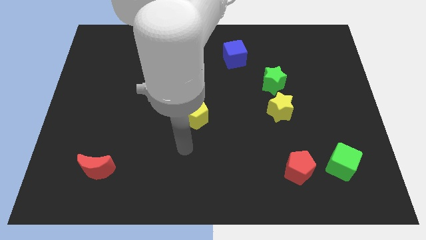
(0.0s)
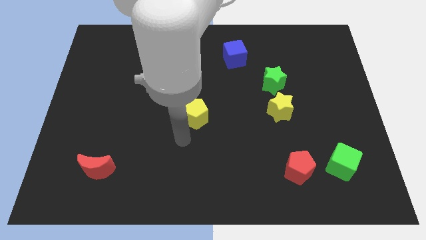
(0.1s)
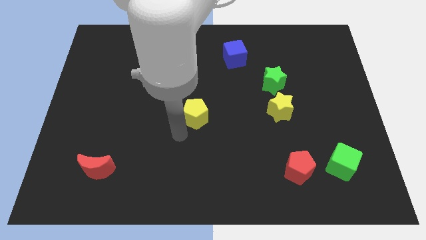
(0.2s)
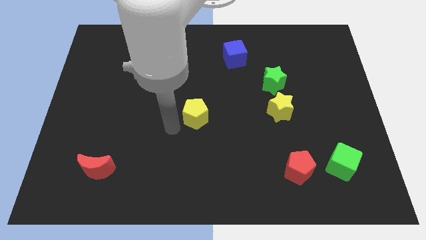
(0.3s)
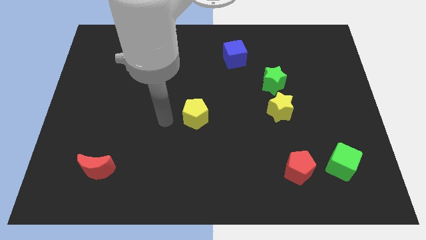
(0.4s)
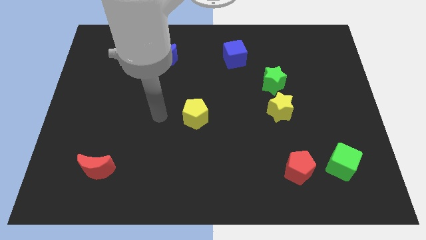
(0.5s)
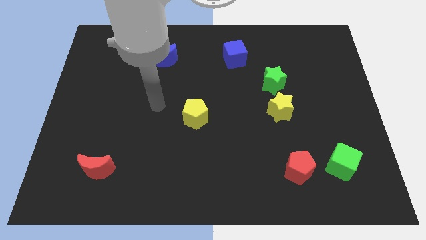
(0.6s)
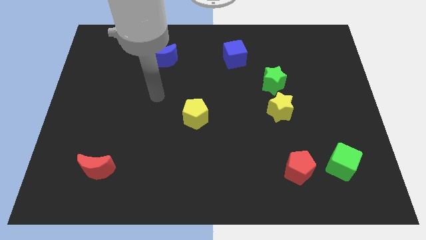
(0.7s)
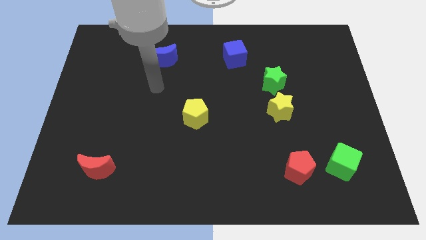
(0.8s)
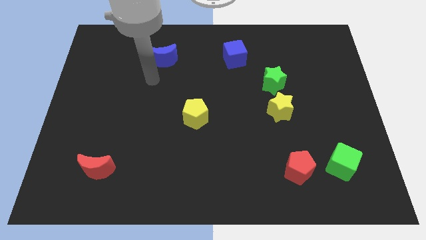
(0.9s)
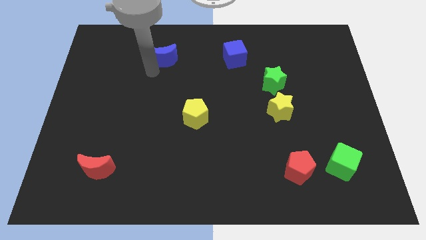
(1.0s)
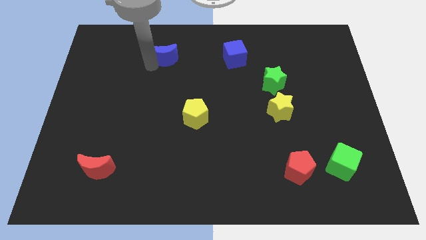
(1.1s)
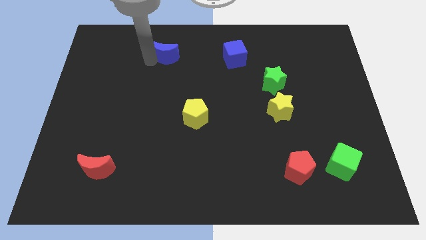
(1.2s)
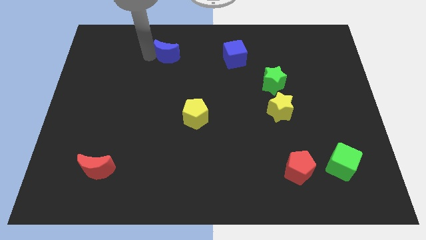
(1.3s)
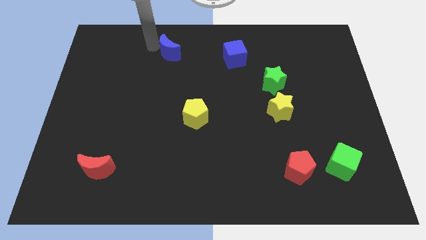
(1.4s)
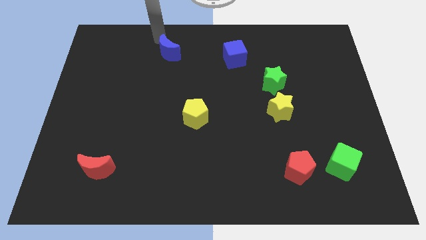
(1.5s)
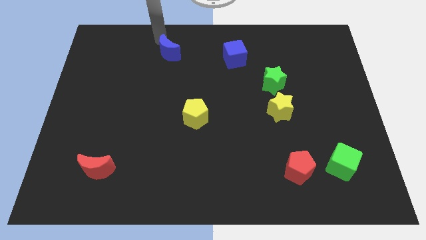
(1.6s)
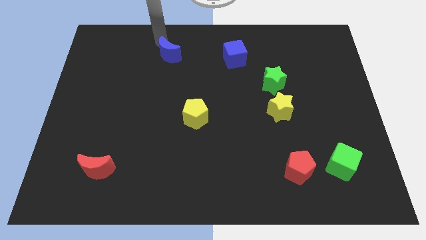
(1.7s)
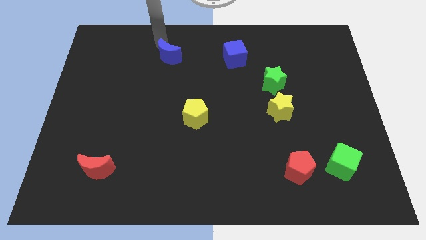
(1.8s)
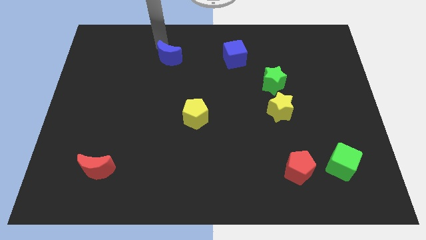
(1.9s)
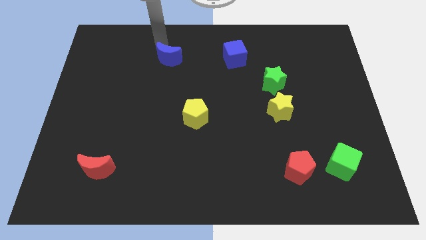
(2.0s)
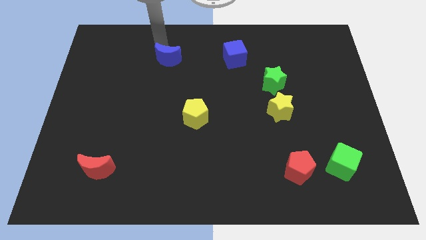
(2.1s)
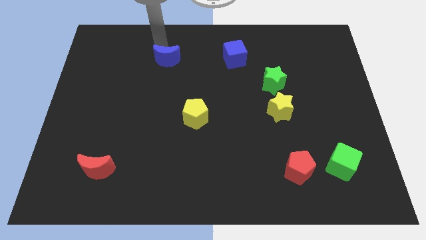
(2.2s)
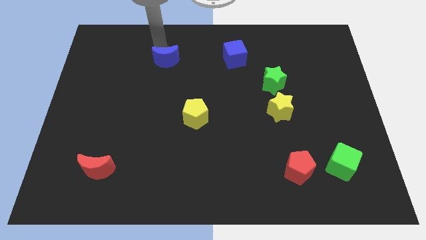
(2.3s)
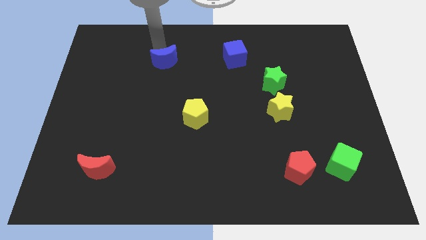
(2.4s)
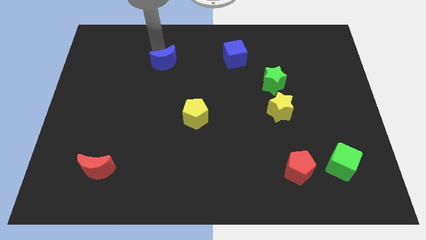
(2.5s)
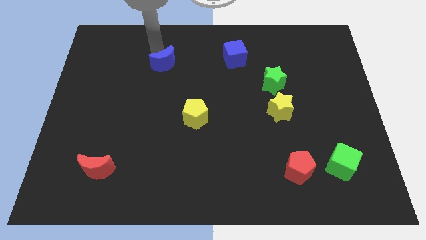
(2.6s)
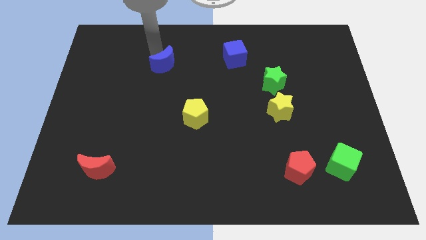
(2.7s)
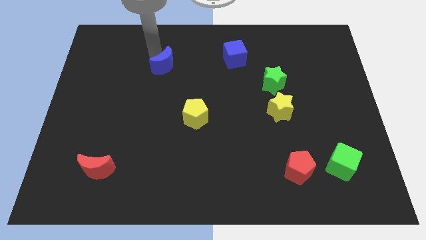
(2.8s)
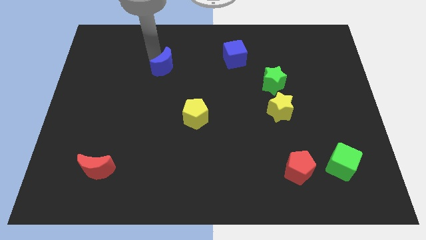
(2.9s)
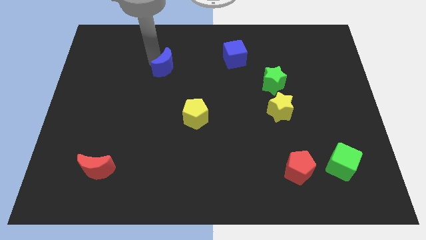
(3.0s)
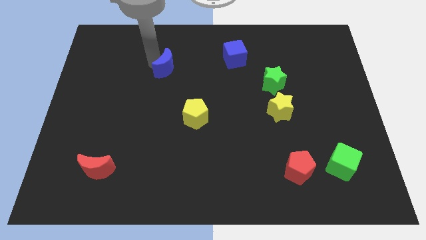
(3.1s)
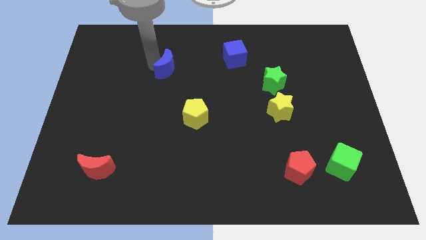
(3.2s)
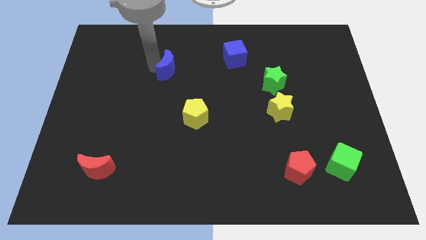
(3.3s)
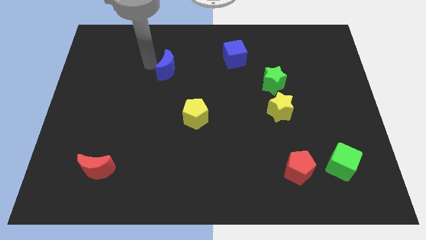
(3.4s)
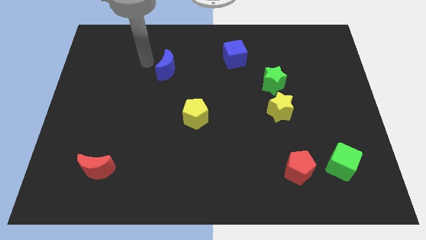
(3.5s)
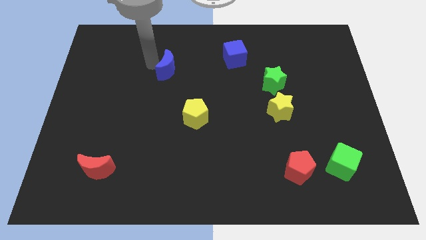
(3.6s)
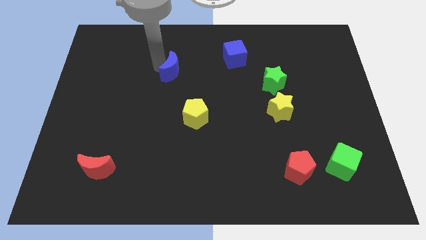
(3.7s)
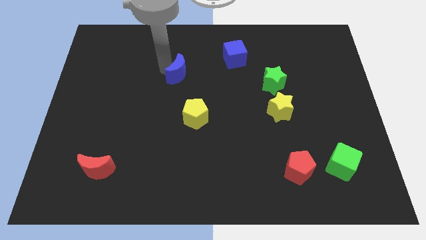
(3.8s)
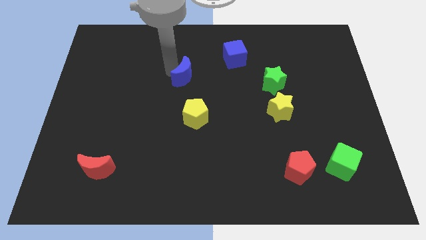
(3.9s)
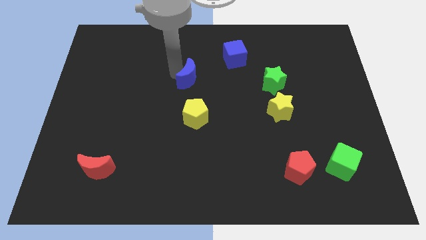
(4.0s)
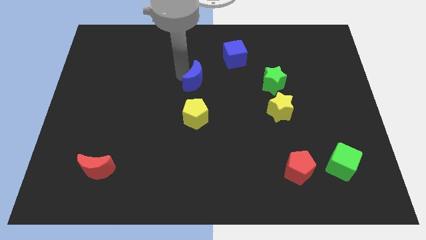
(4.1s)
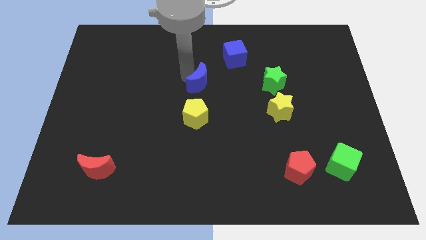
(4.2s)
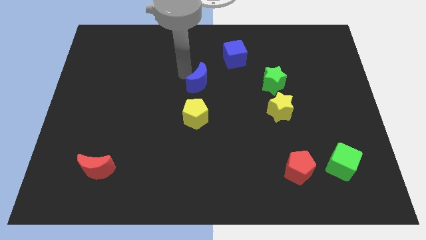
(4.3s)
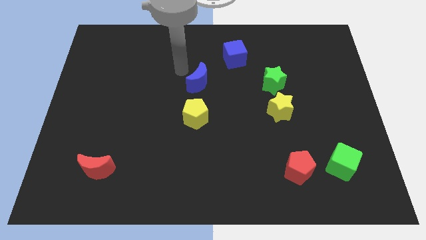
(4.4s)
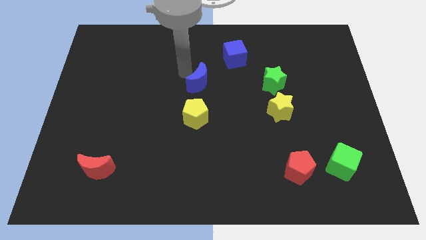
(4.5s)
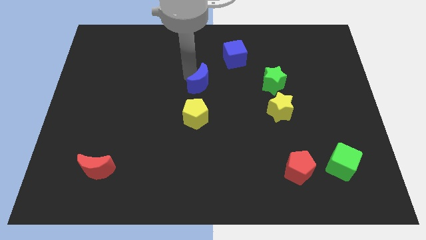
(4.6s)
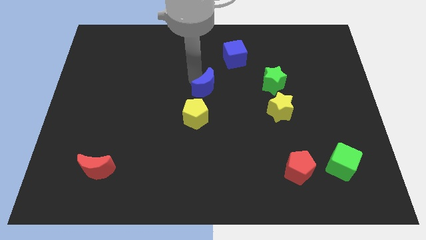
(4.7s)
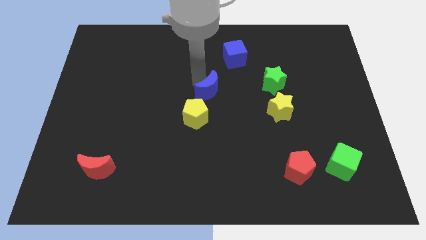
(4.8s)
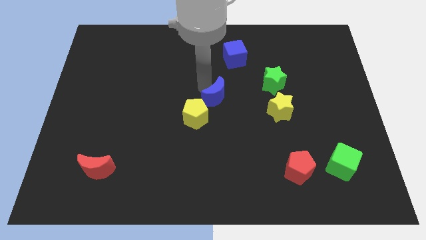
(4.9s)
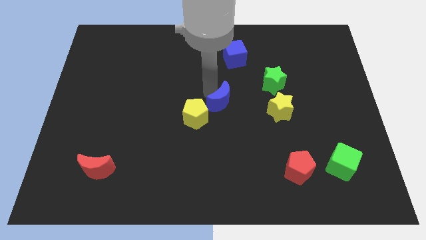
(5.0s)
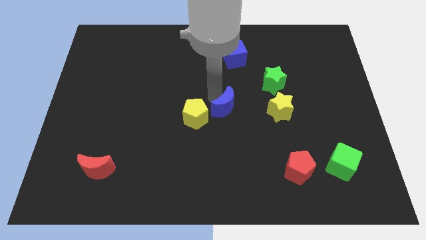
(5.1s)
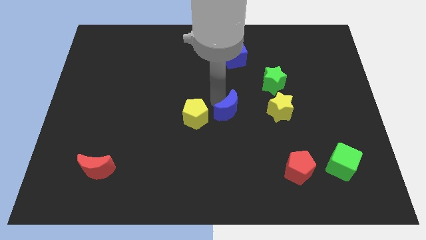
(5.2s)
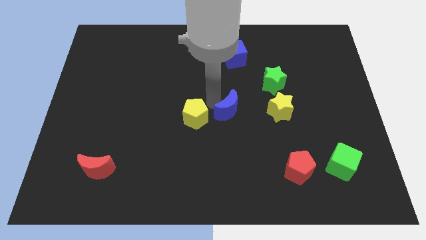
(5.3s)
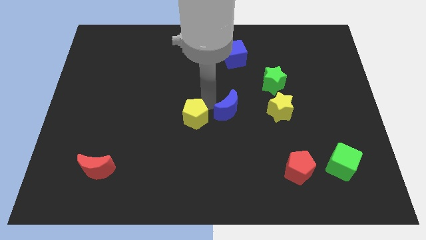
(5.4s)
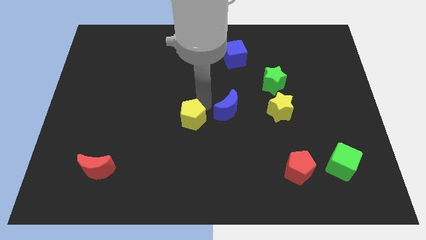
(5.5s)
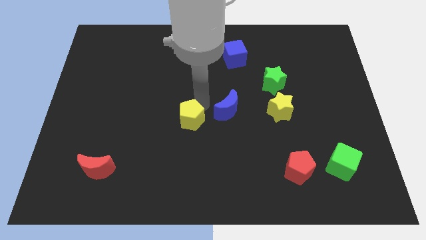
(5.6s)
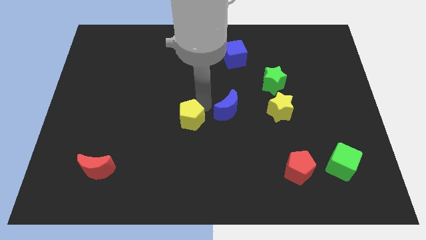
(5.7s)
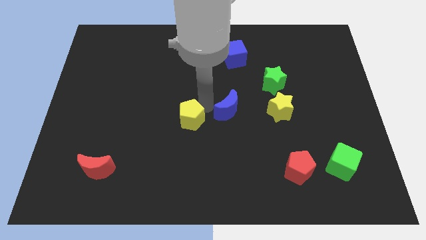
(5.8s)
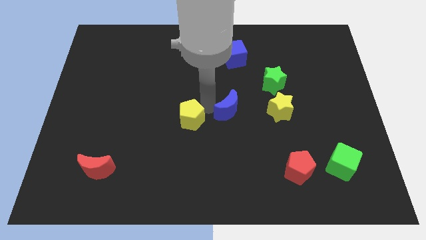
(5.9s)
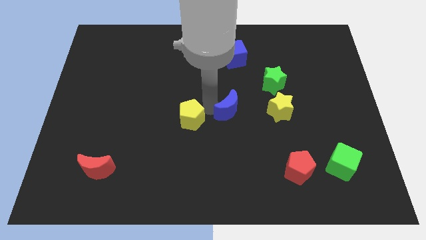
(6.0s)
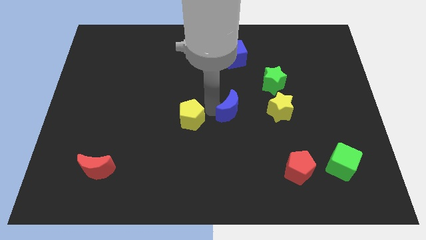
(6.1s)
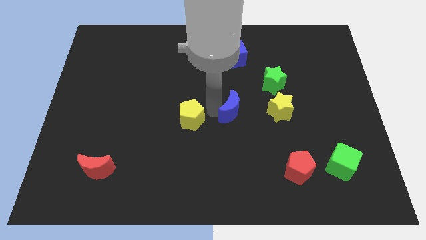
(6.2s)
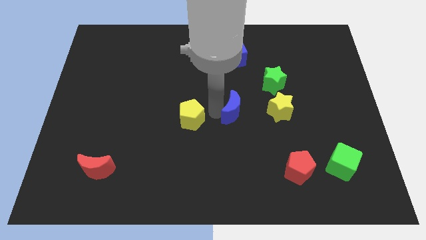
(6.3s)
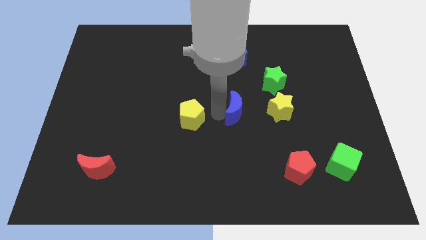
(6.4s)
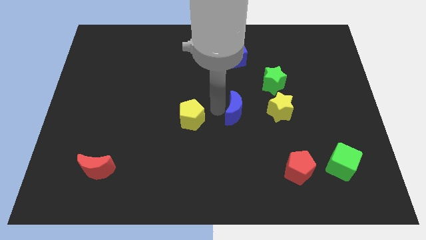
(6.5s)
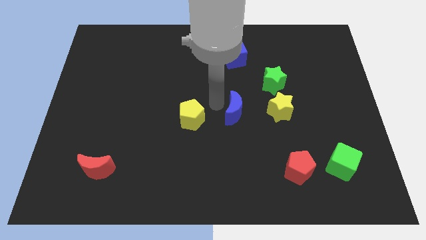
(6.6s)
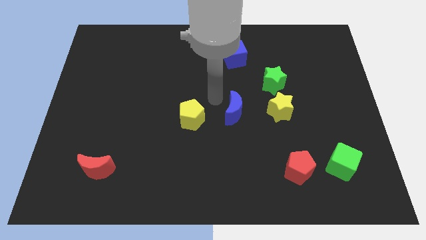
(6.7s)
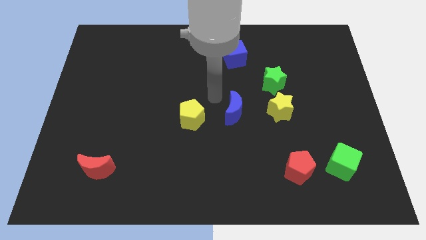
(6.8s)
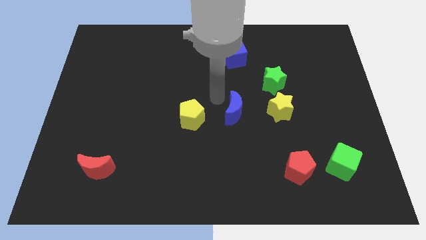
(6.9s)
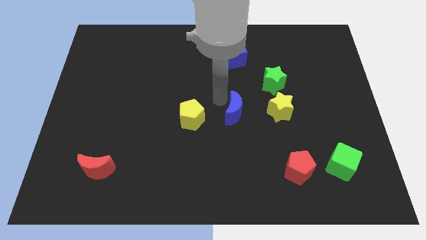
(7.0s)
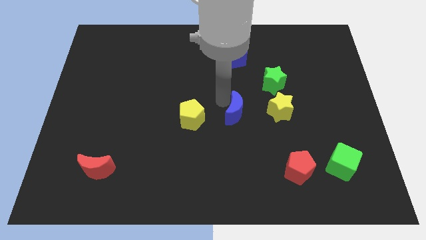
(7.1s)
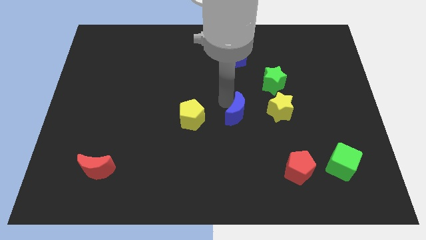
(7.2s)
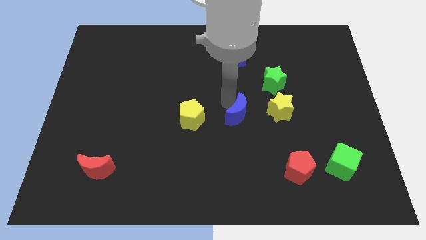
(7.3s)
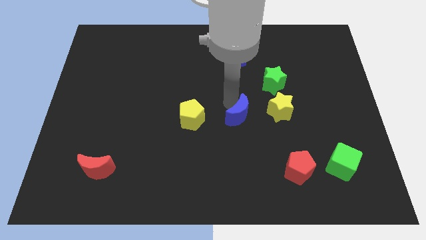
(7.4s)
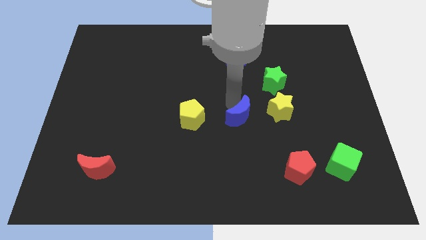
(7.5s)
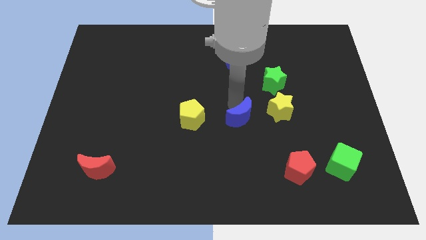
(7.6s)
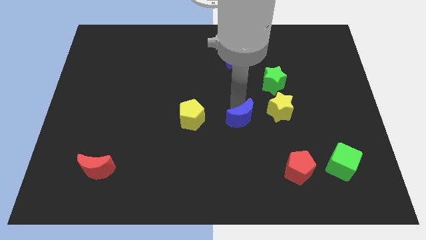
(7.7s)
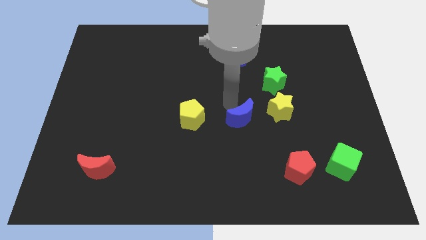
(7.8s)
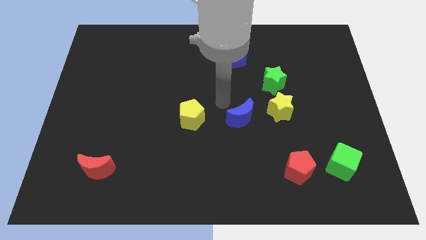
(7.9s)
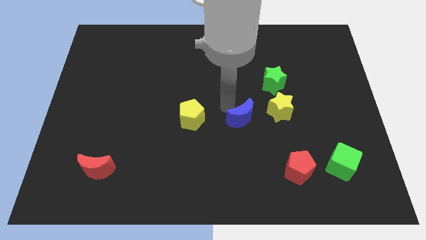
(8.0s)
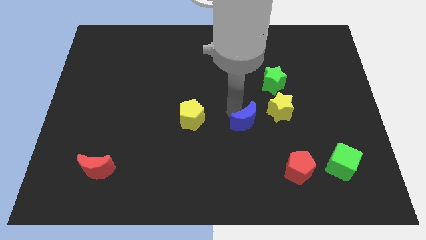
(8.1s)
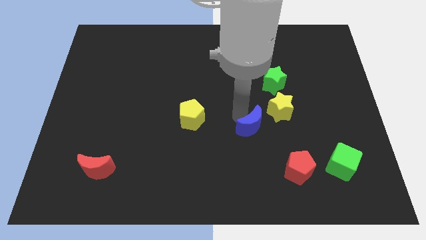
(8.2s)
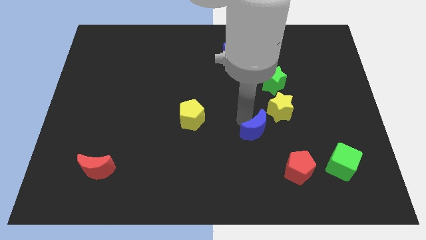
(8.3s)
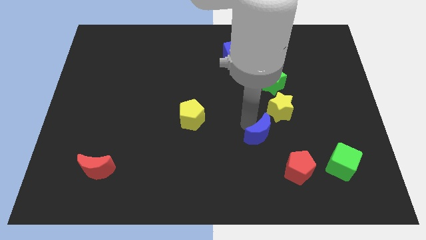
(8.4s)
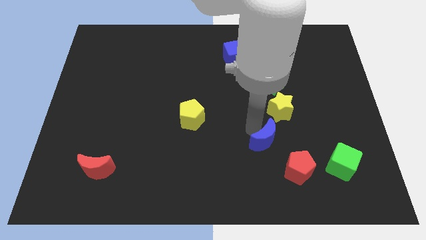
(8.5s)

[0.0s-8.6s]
slide the blue moon below the yellow star
